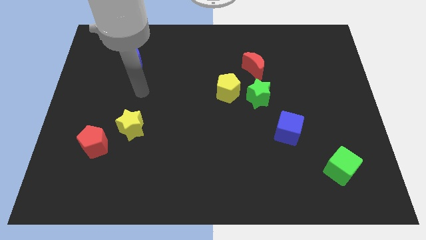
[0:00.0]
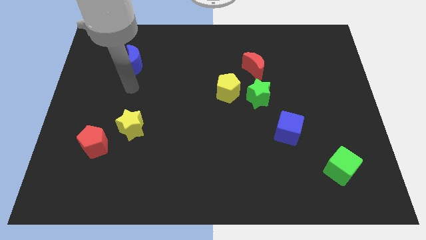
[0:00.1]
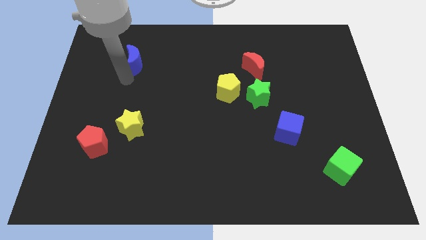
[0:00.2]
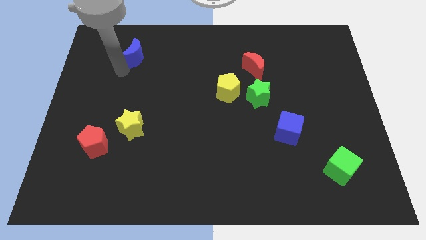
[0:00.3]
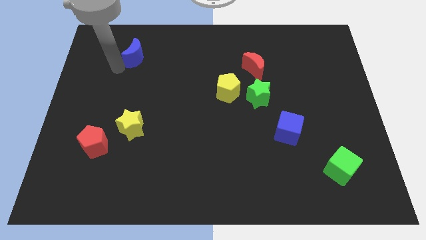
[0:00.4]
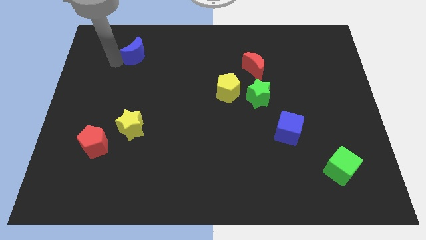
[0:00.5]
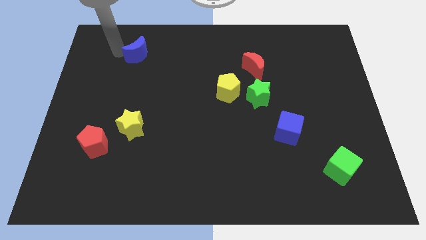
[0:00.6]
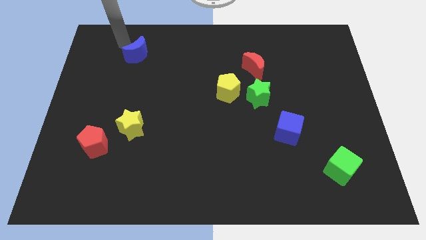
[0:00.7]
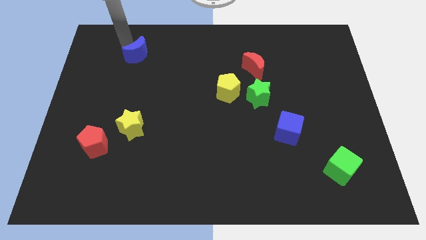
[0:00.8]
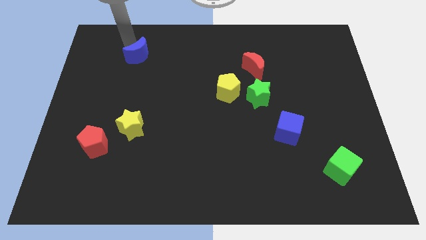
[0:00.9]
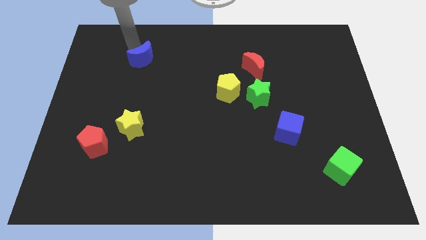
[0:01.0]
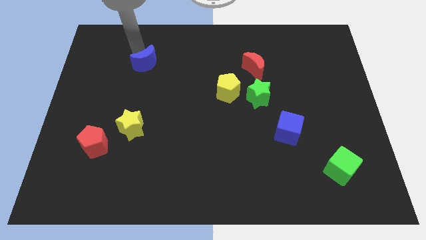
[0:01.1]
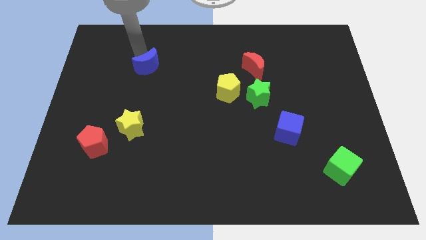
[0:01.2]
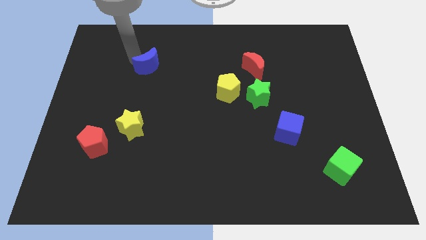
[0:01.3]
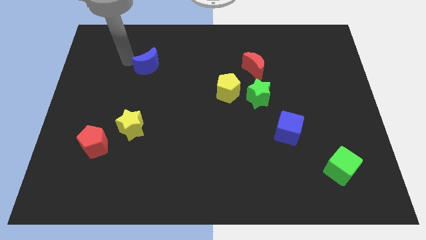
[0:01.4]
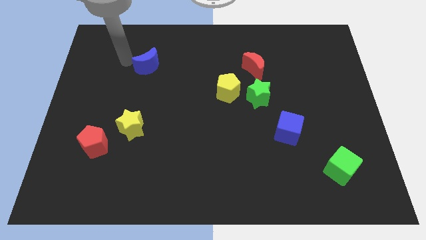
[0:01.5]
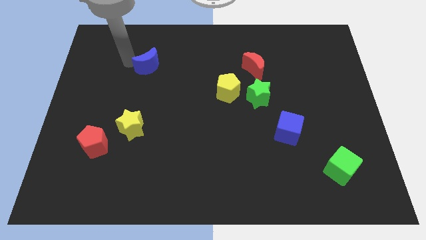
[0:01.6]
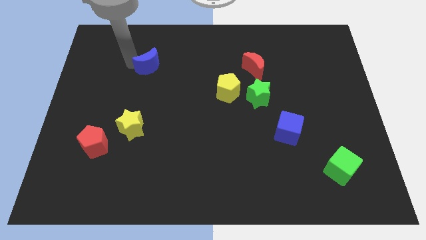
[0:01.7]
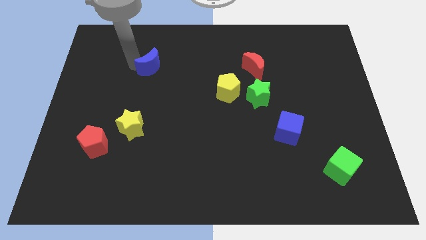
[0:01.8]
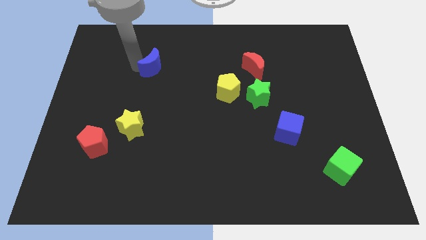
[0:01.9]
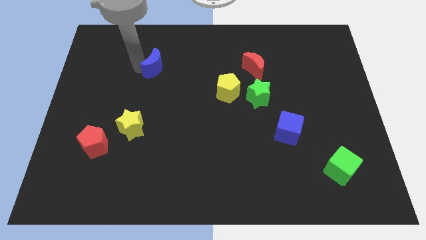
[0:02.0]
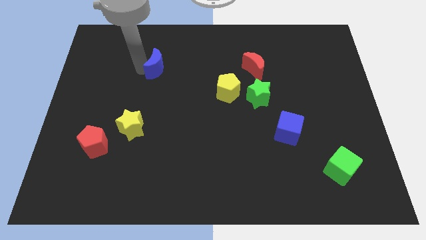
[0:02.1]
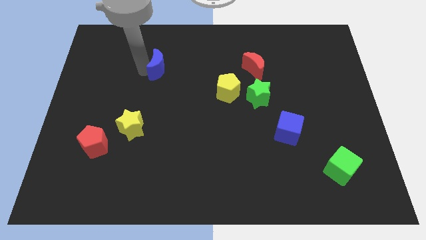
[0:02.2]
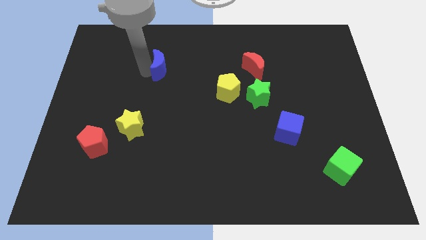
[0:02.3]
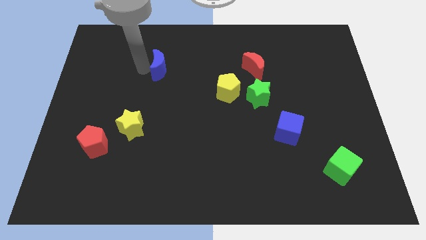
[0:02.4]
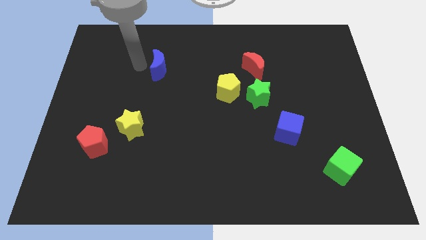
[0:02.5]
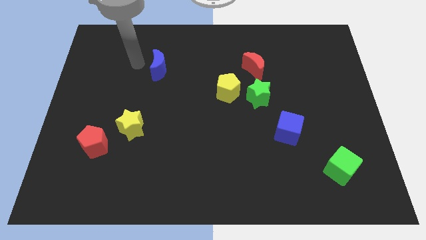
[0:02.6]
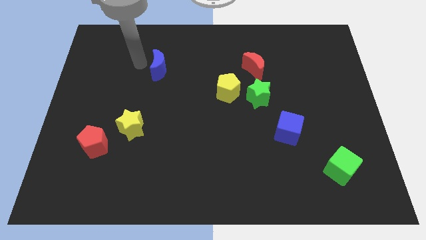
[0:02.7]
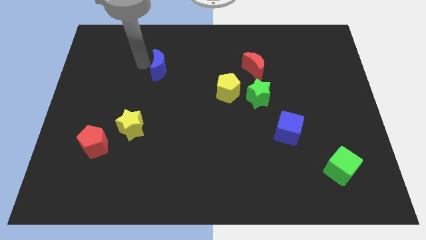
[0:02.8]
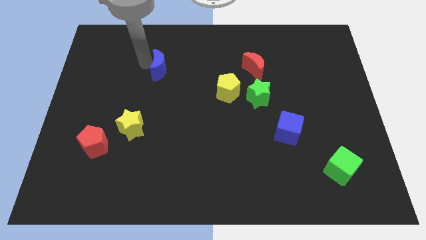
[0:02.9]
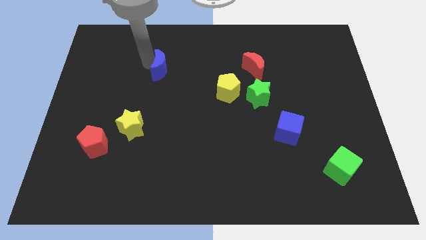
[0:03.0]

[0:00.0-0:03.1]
push the blue moon to the right a bit

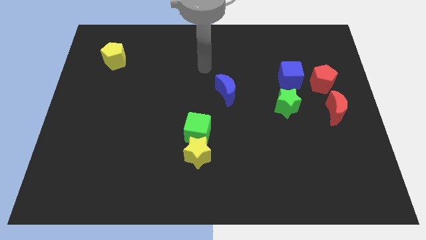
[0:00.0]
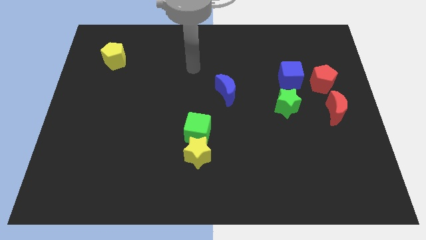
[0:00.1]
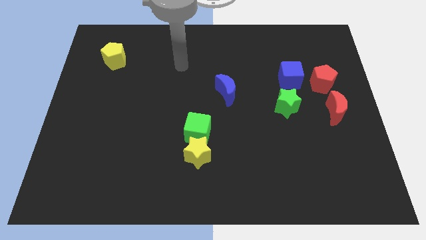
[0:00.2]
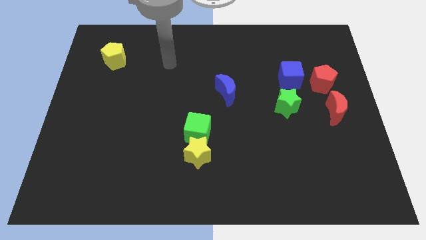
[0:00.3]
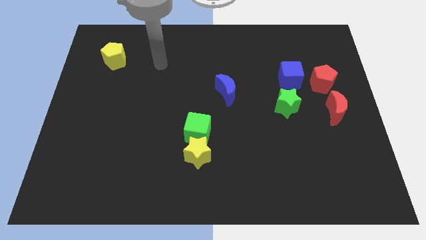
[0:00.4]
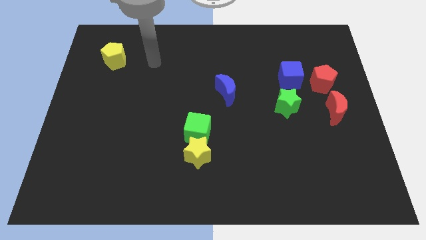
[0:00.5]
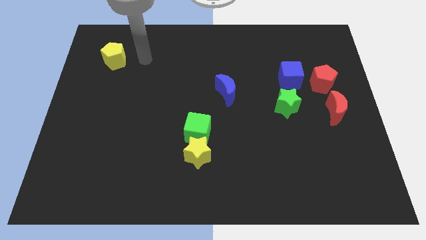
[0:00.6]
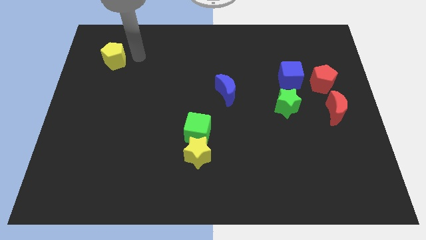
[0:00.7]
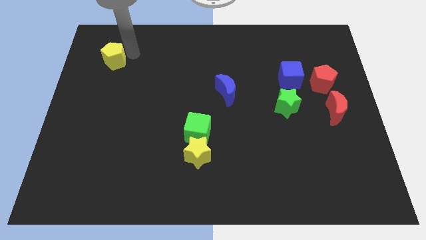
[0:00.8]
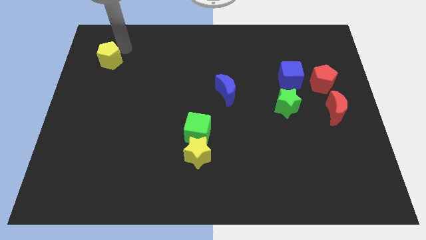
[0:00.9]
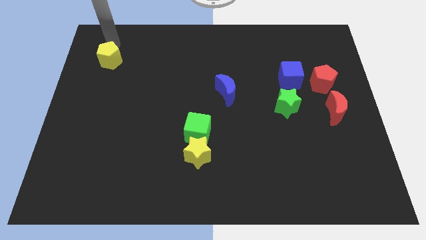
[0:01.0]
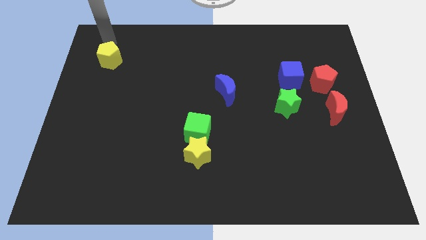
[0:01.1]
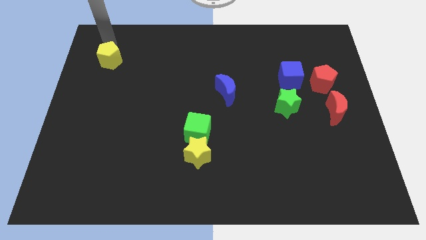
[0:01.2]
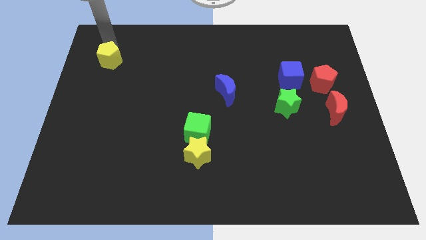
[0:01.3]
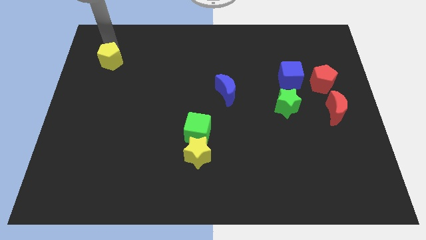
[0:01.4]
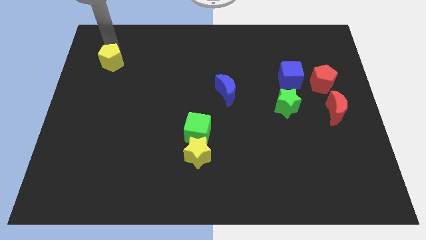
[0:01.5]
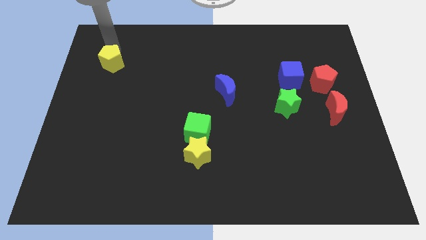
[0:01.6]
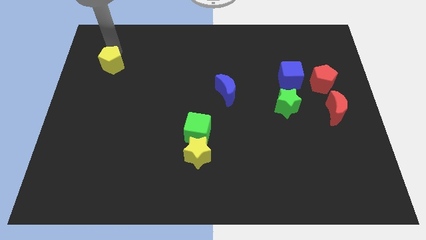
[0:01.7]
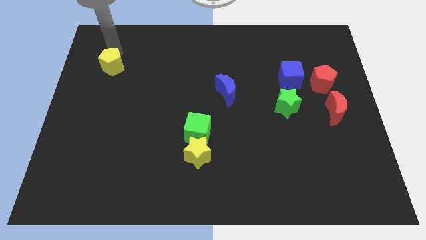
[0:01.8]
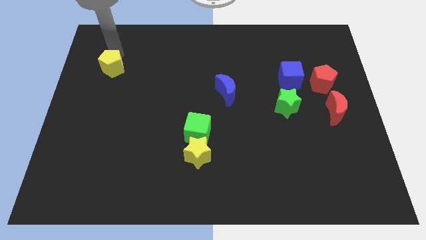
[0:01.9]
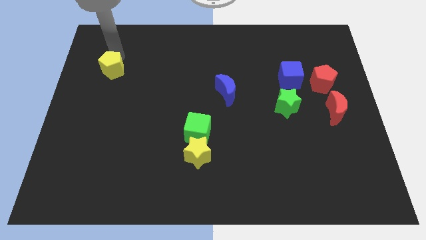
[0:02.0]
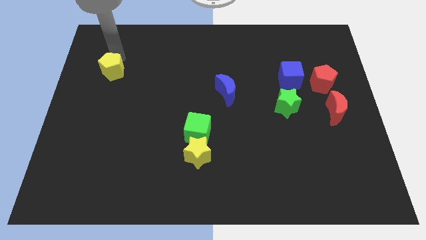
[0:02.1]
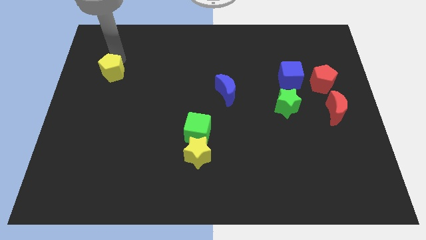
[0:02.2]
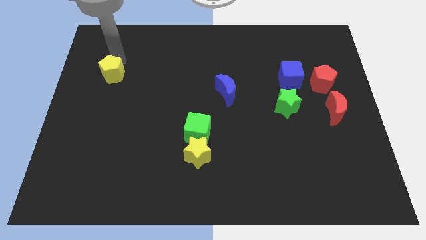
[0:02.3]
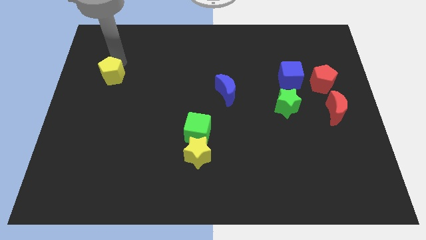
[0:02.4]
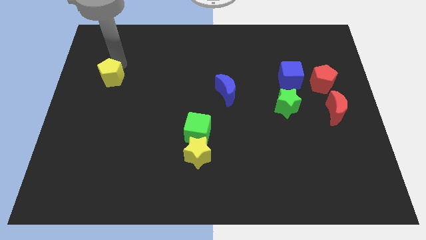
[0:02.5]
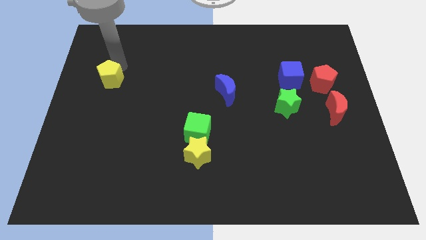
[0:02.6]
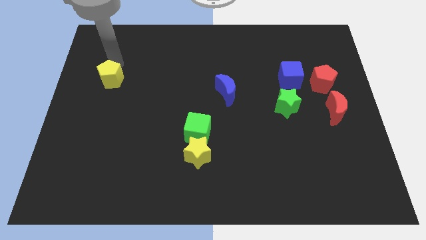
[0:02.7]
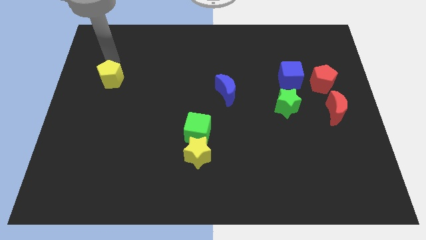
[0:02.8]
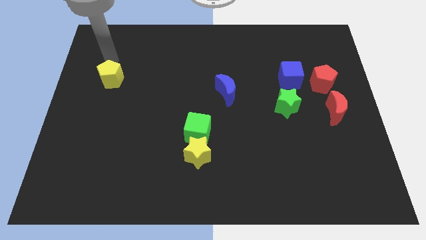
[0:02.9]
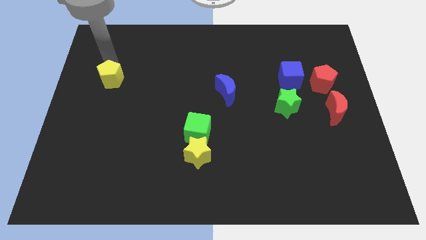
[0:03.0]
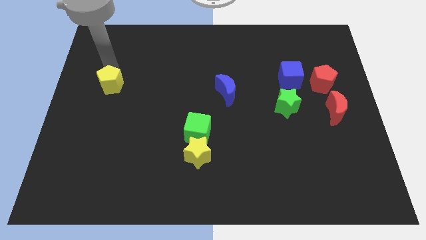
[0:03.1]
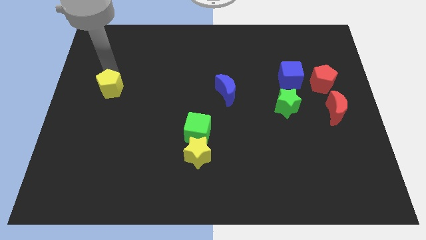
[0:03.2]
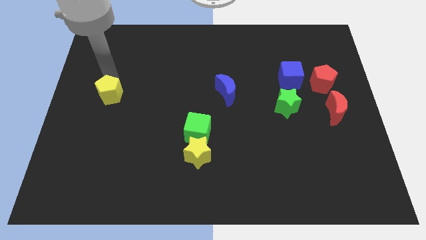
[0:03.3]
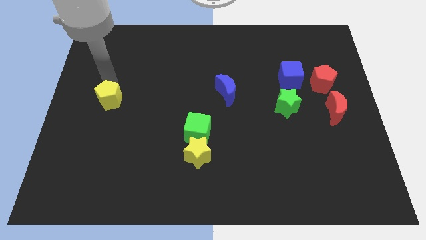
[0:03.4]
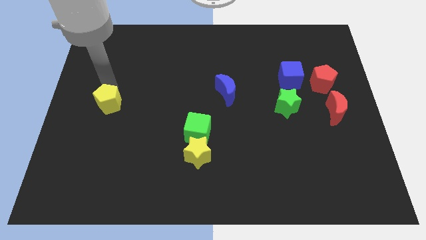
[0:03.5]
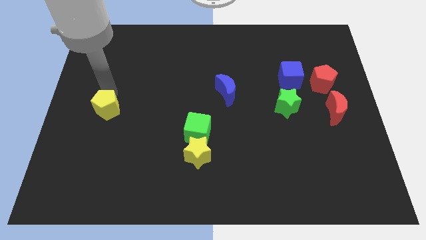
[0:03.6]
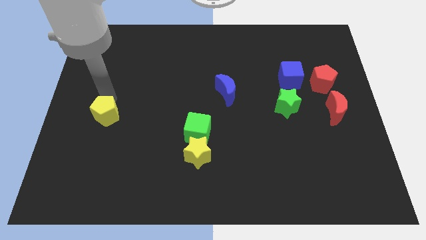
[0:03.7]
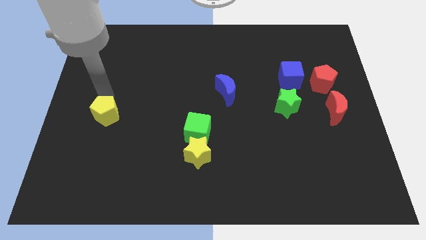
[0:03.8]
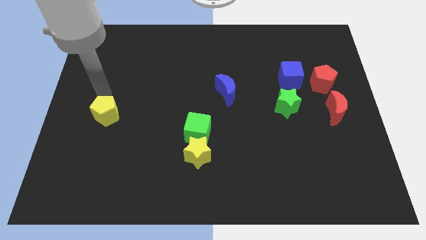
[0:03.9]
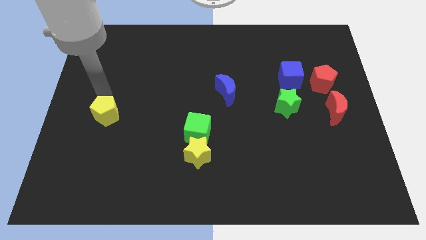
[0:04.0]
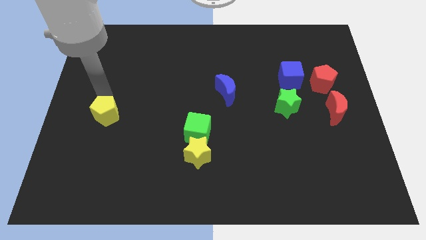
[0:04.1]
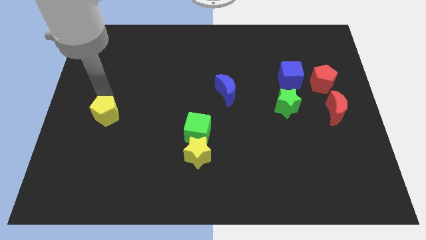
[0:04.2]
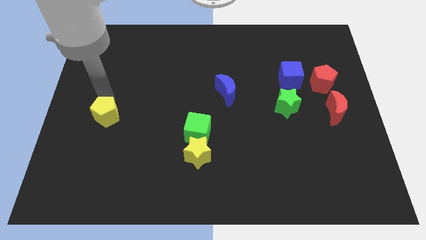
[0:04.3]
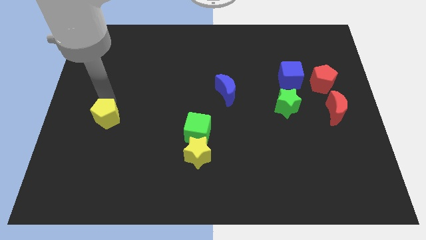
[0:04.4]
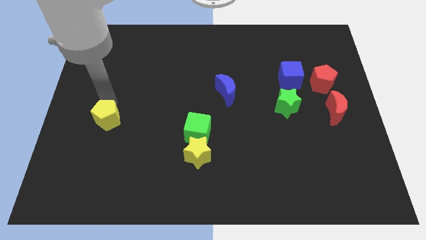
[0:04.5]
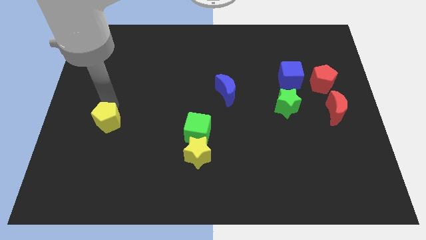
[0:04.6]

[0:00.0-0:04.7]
slide the yellow pentagon downwards

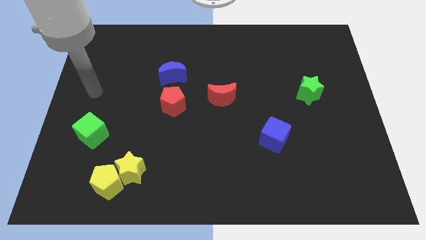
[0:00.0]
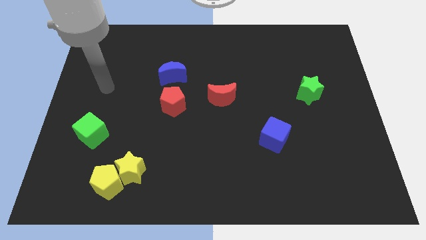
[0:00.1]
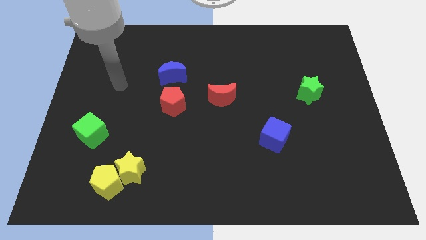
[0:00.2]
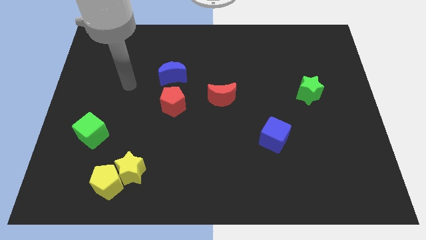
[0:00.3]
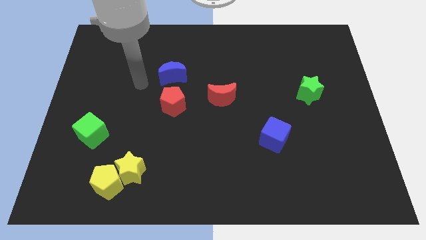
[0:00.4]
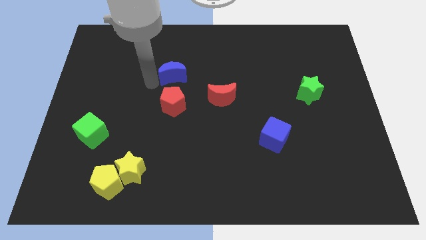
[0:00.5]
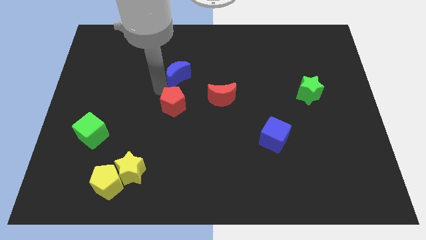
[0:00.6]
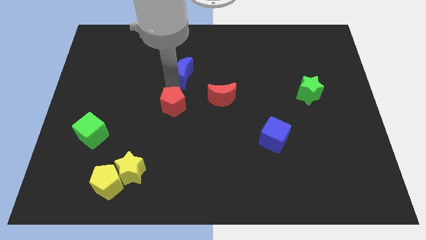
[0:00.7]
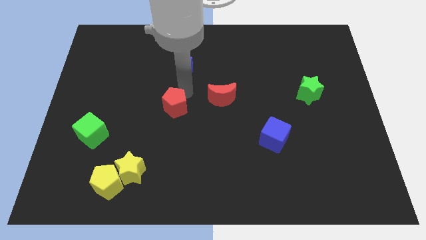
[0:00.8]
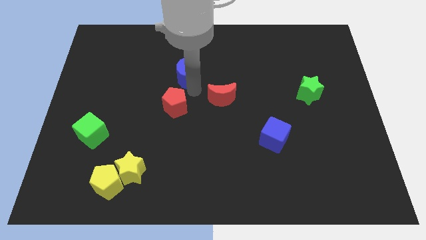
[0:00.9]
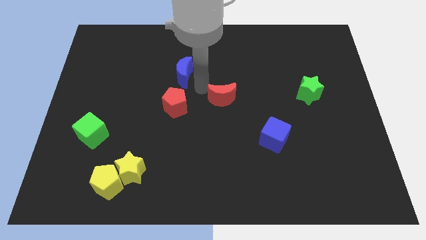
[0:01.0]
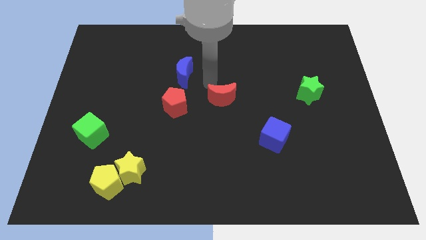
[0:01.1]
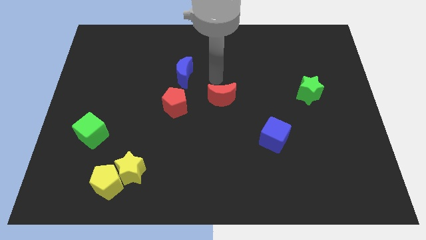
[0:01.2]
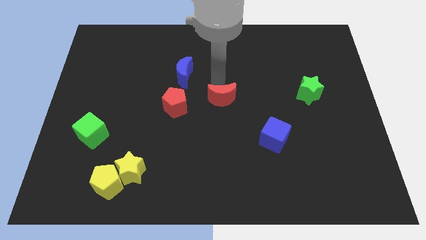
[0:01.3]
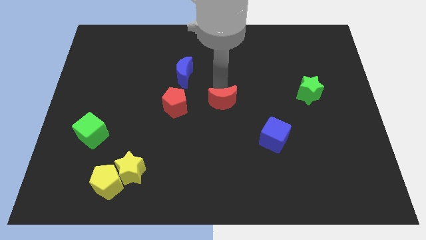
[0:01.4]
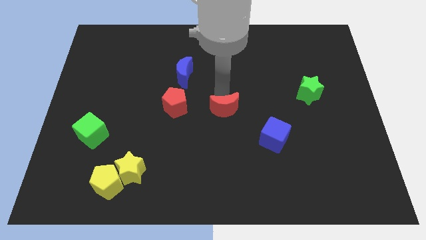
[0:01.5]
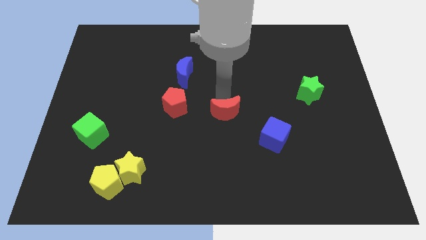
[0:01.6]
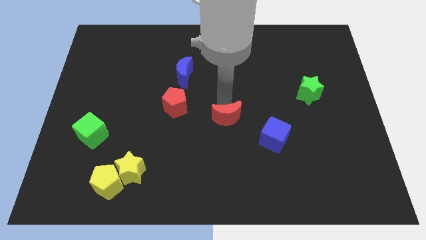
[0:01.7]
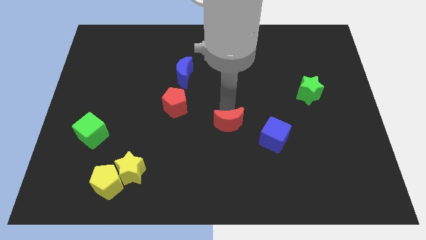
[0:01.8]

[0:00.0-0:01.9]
slide the red moon down slightly
